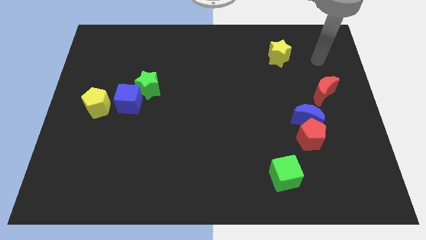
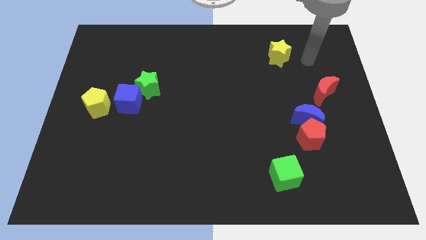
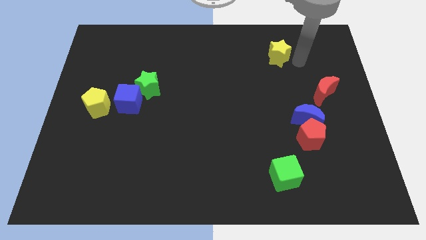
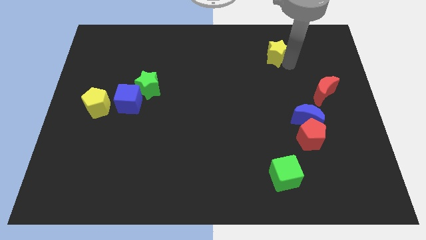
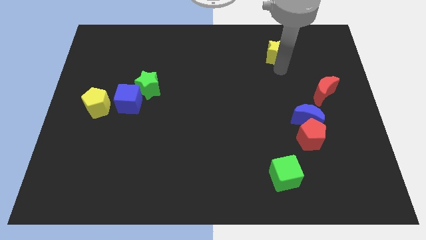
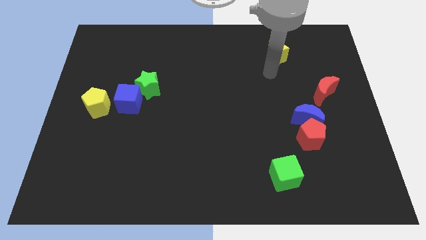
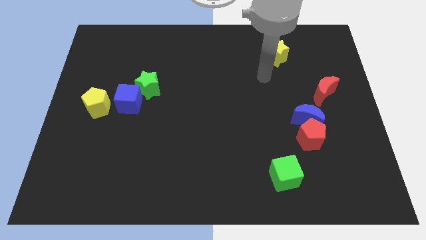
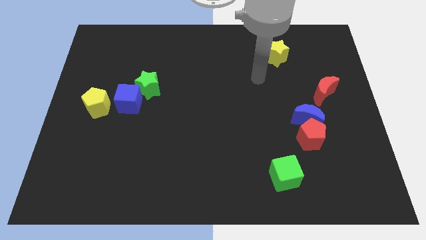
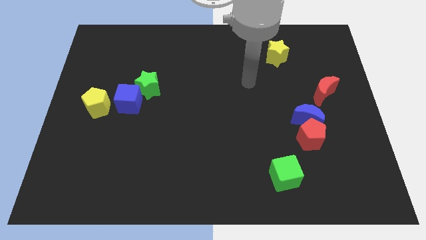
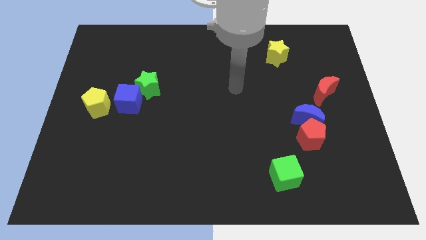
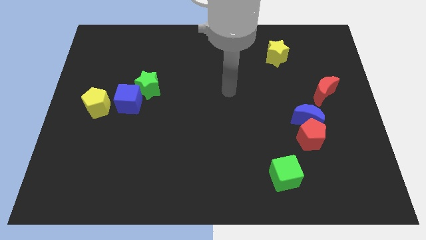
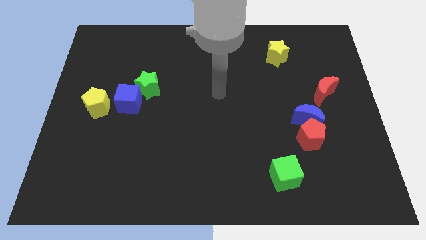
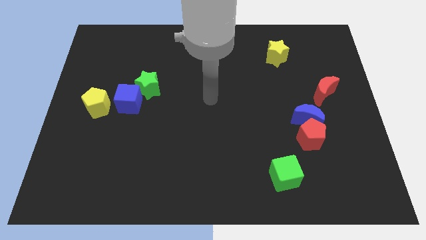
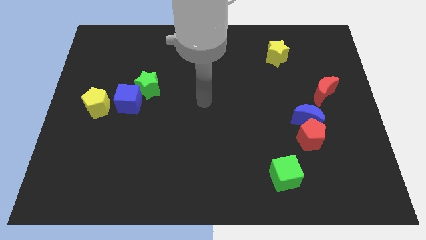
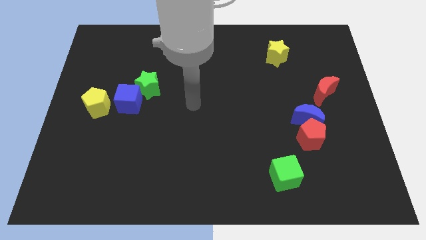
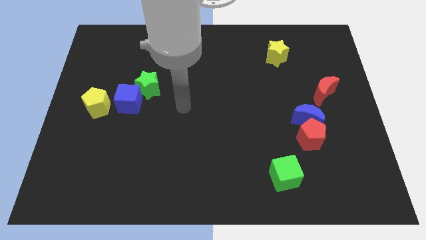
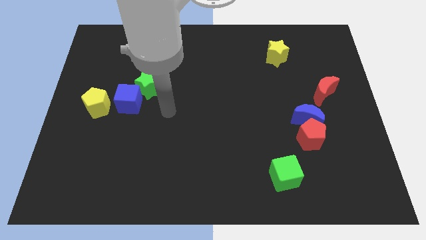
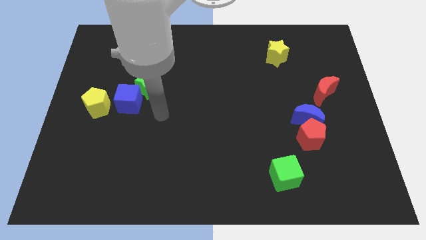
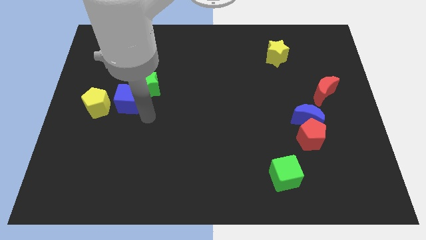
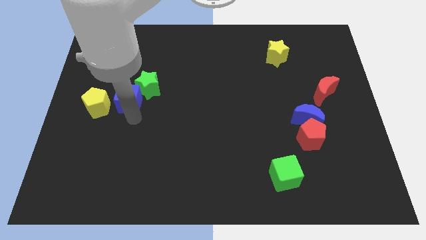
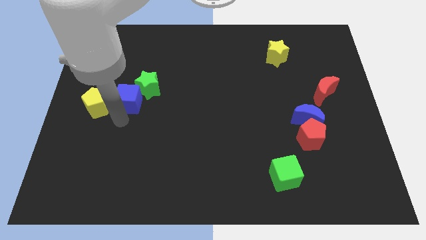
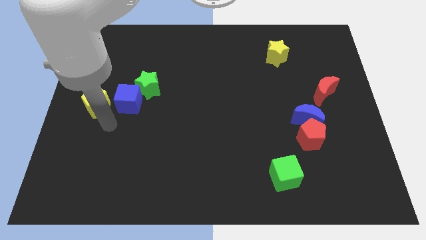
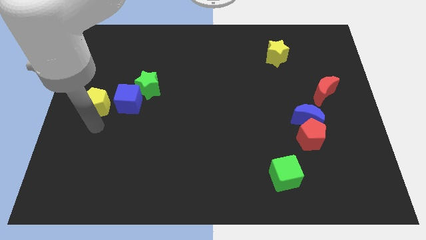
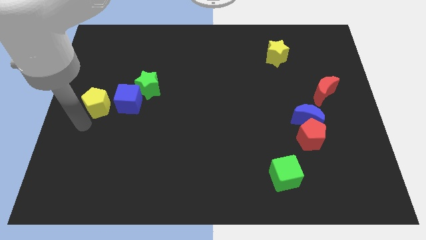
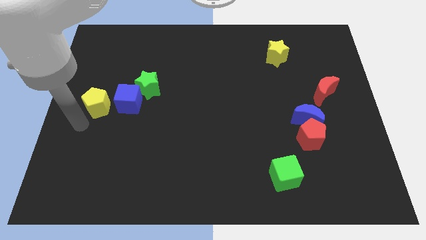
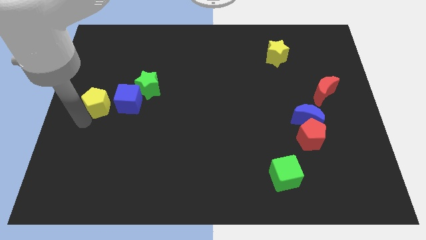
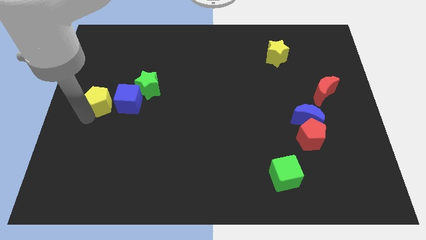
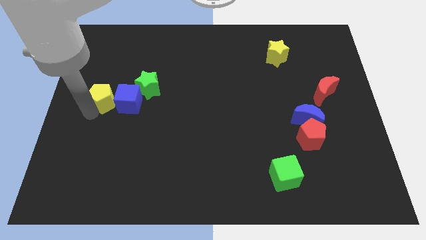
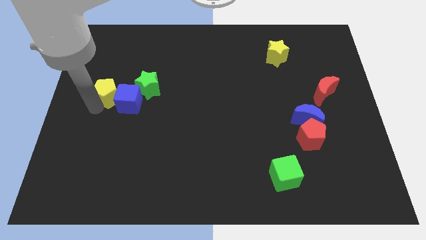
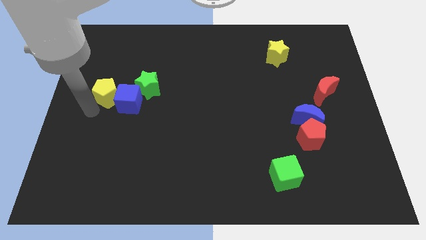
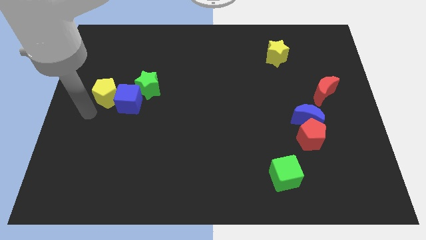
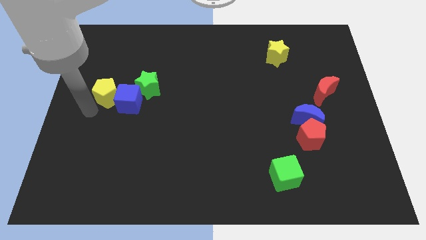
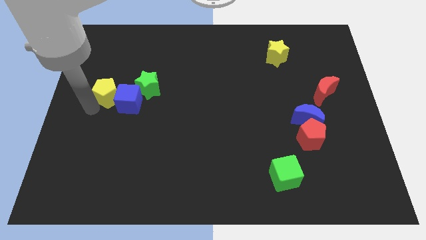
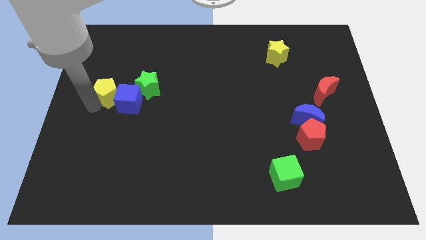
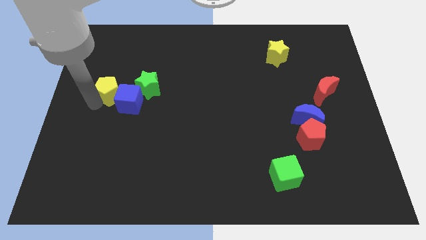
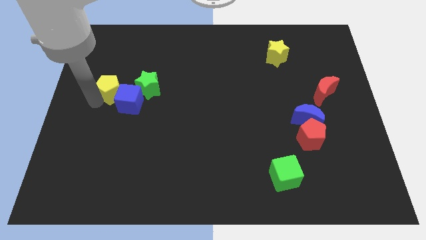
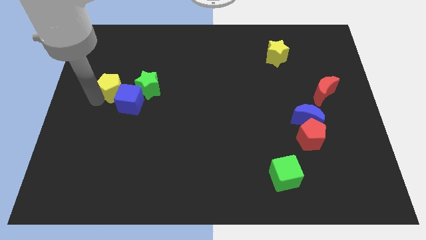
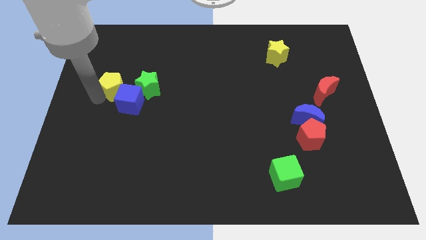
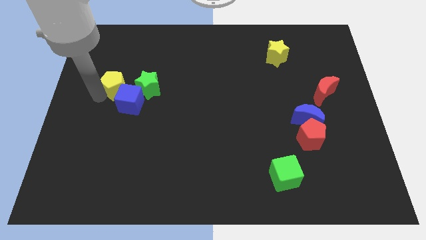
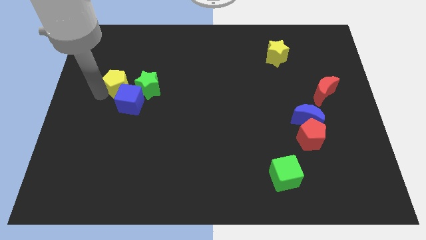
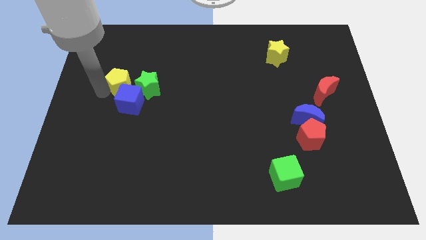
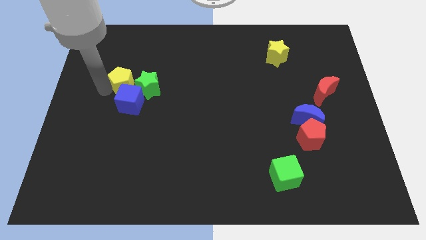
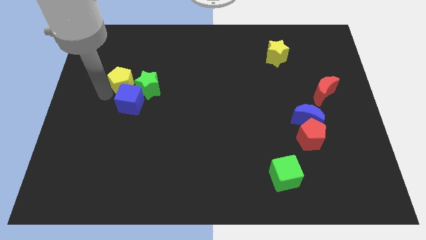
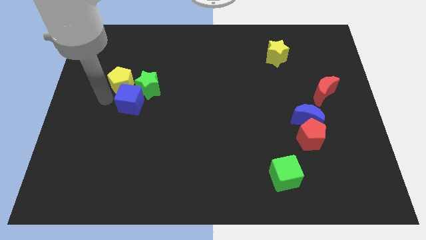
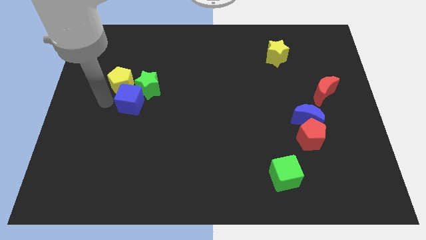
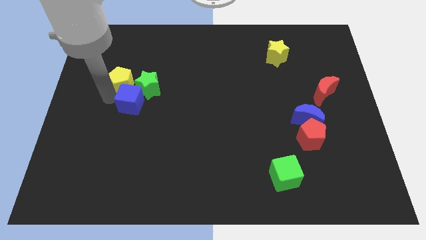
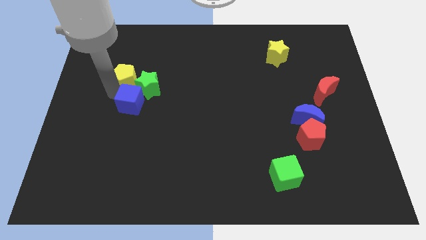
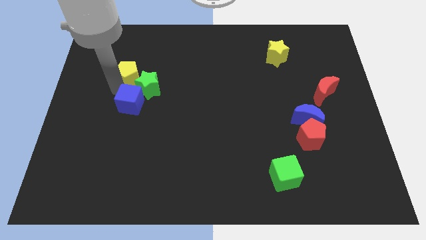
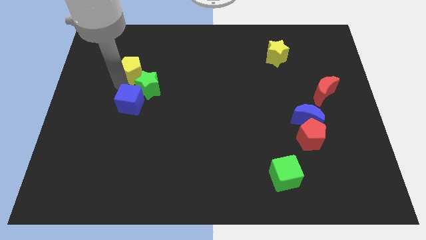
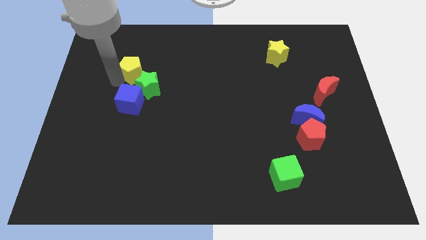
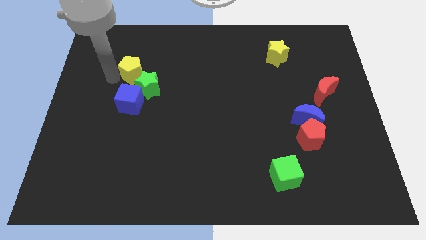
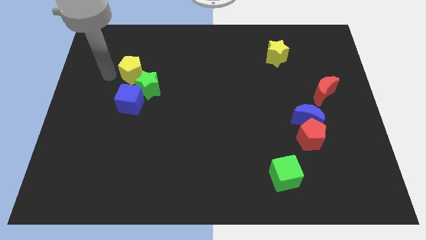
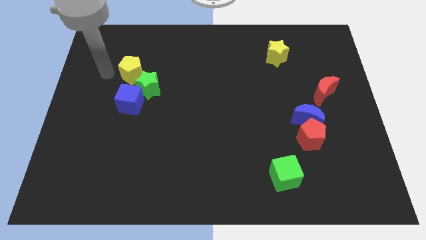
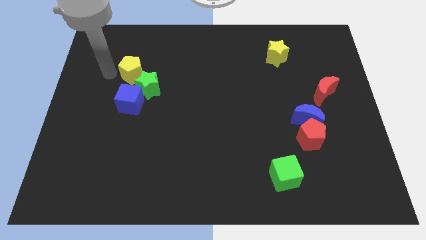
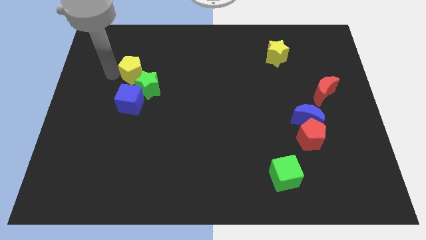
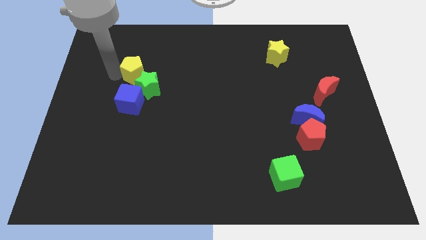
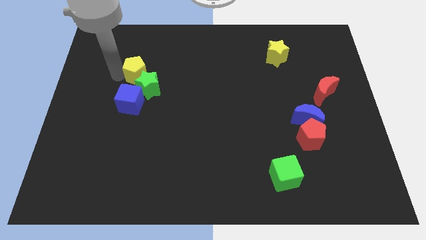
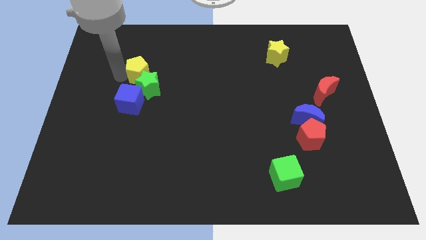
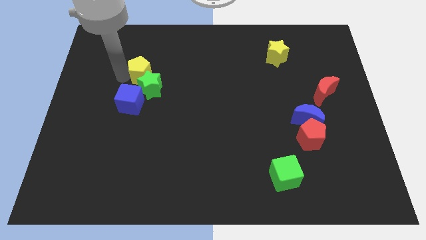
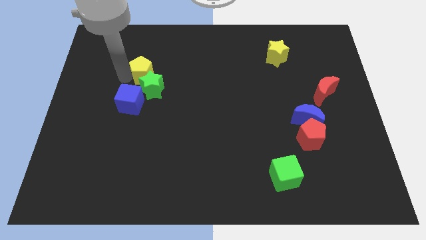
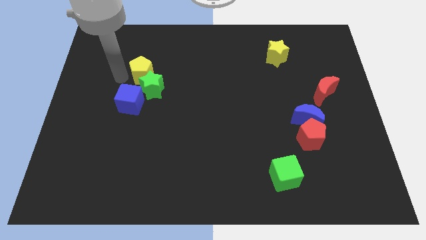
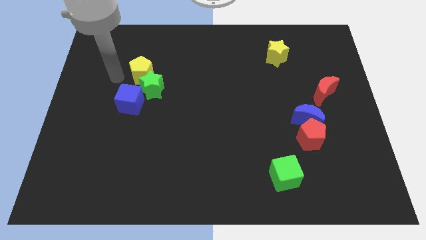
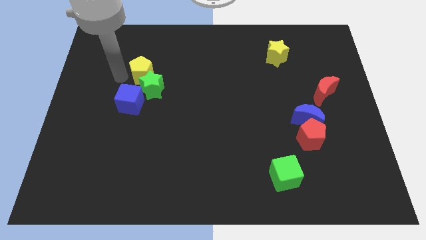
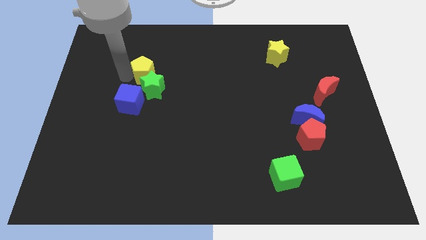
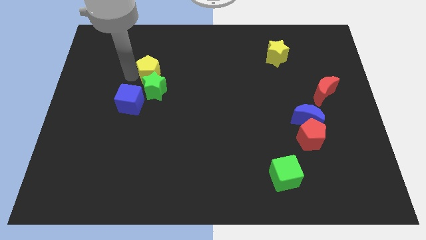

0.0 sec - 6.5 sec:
put the yellow pentagon to the top right side of the blue cube
